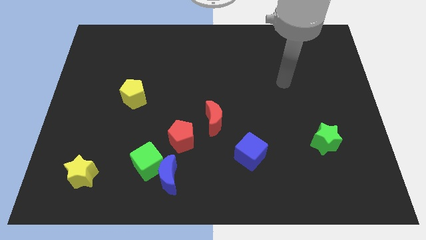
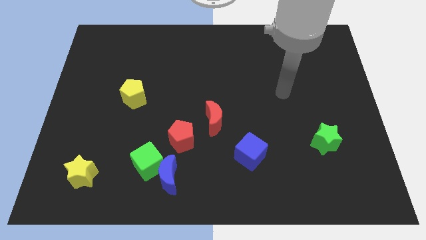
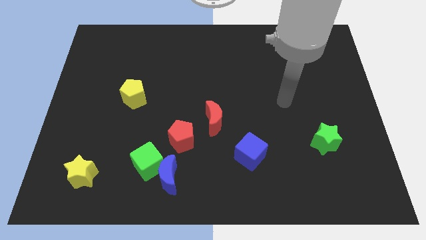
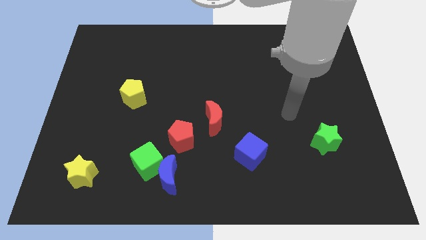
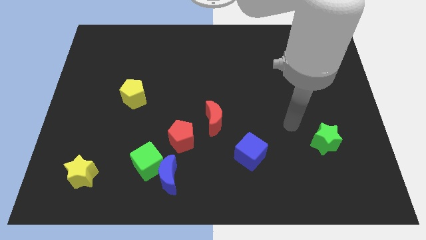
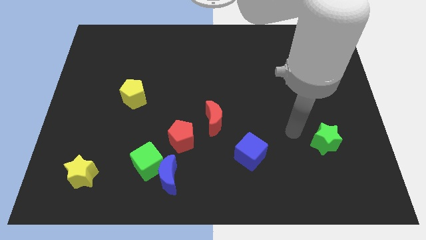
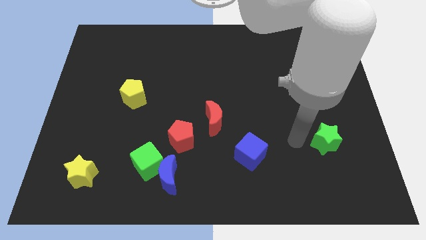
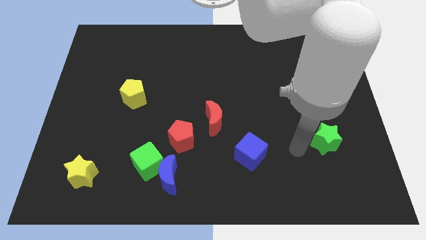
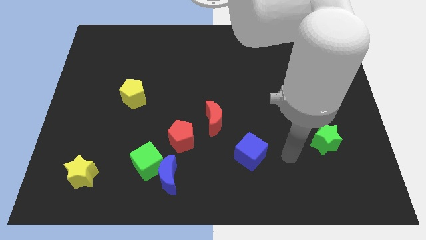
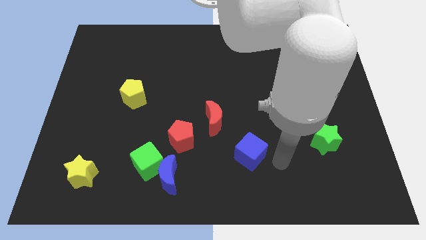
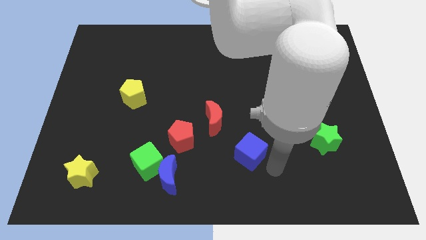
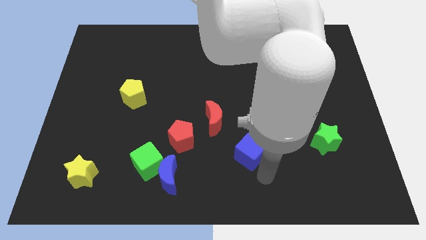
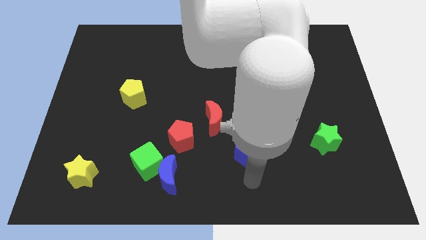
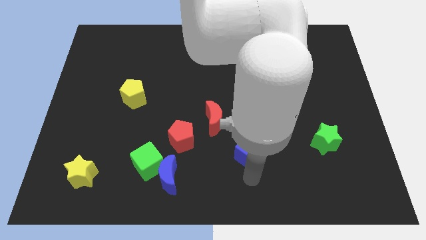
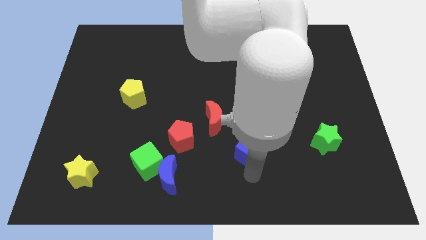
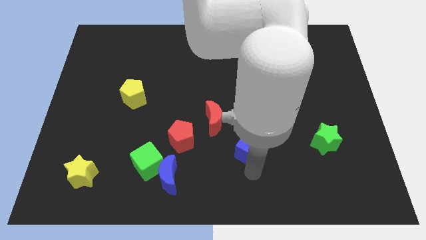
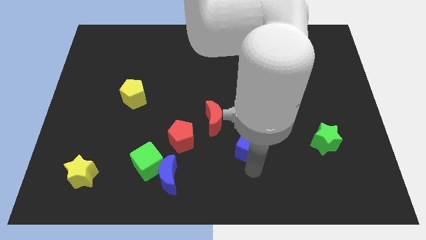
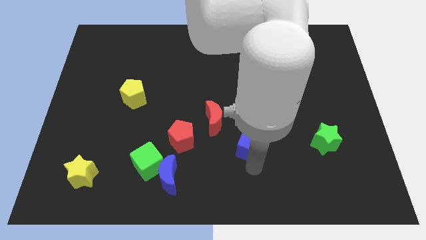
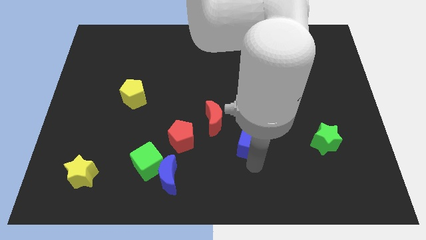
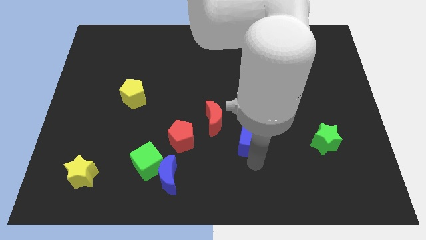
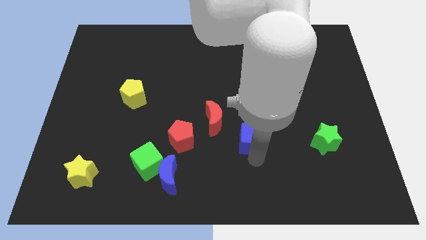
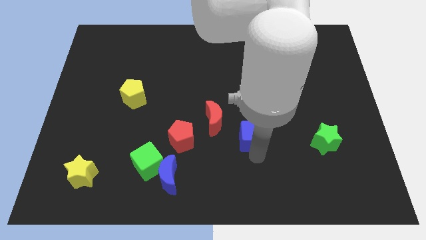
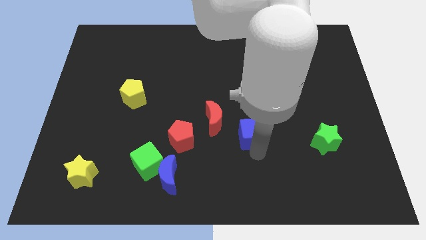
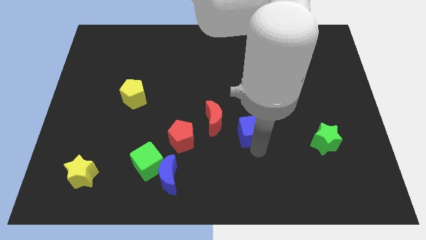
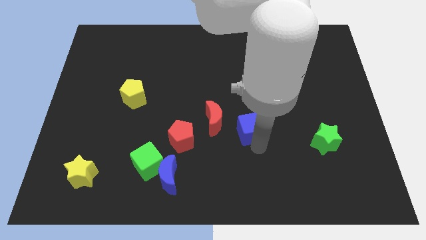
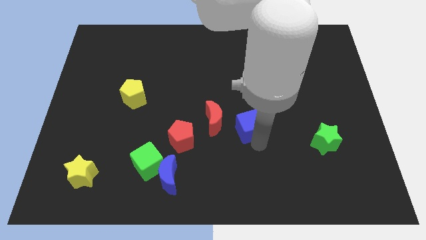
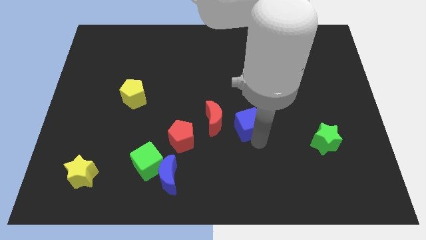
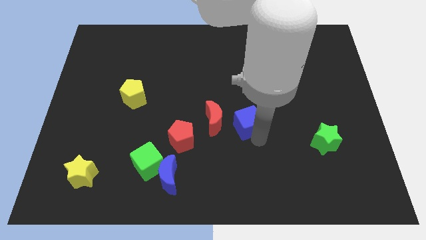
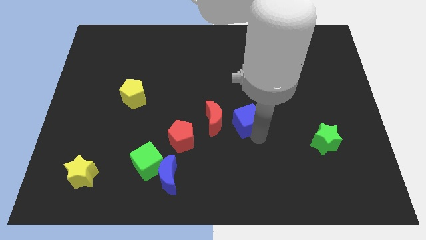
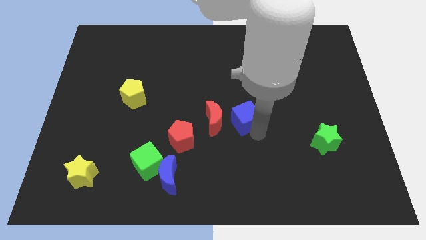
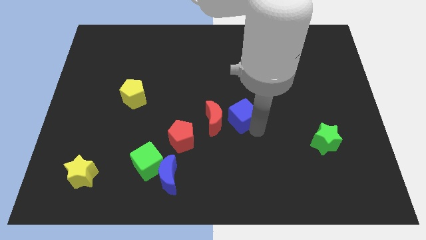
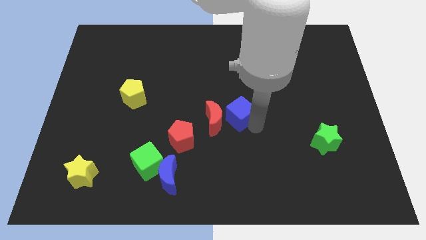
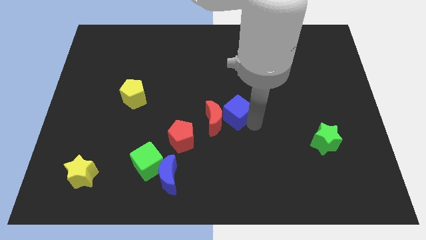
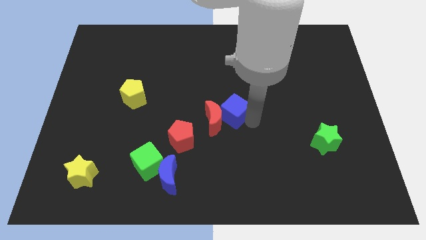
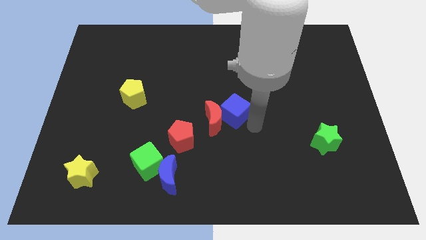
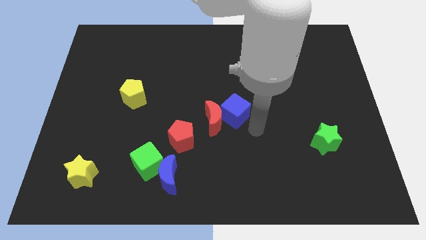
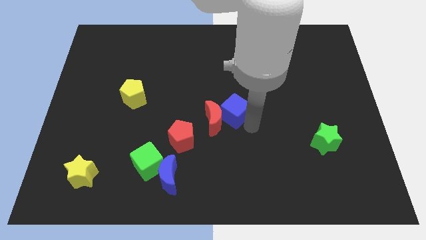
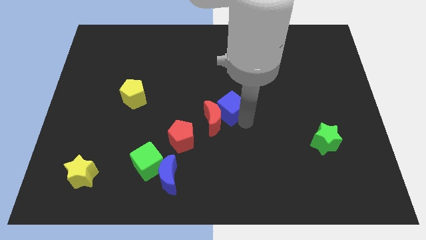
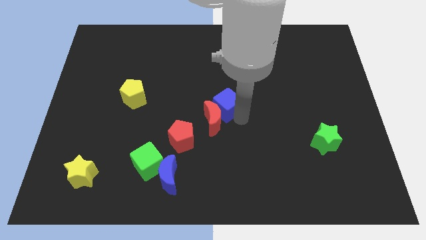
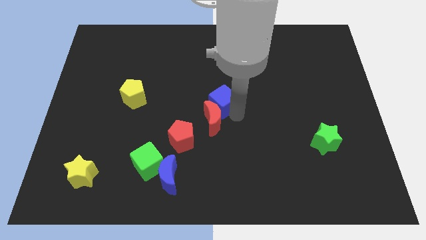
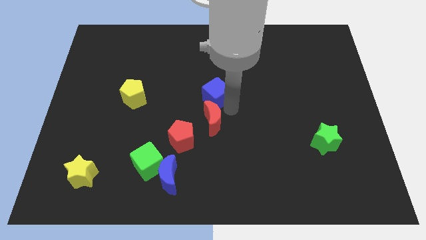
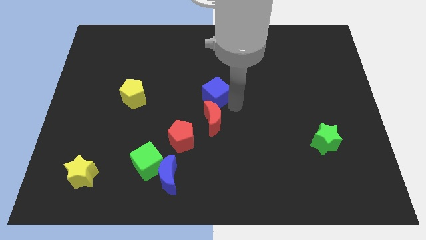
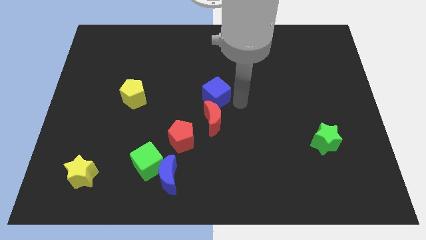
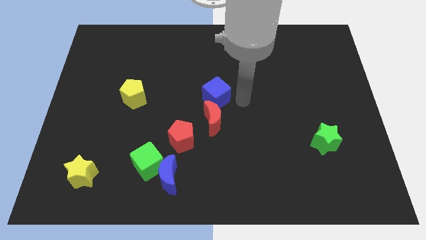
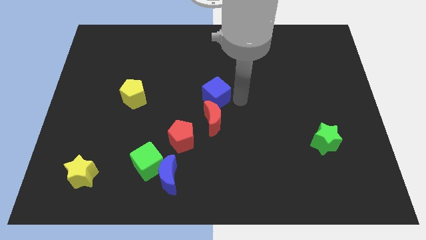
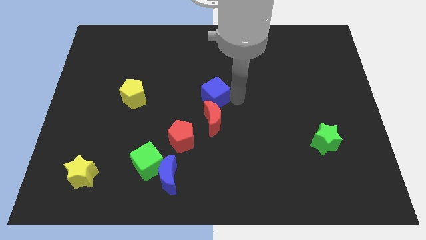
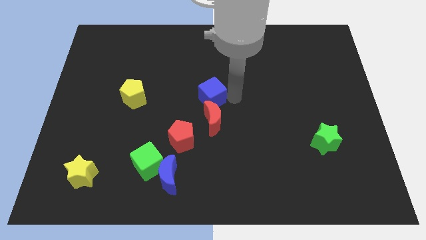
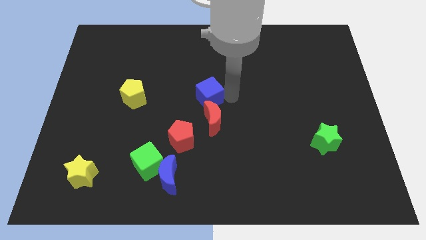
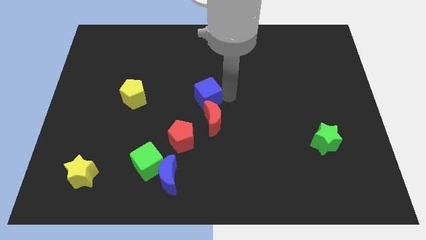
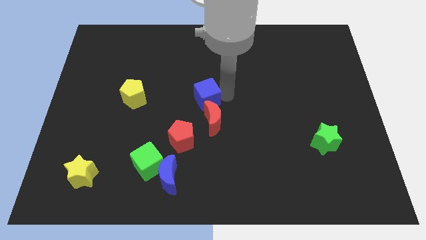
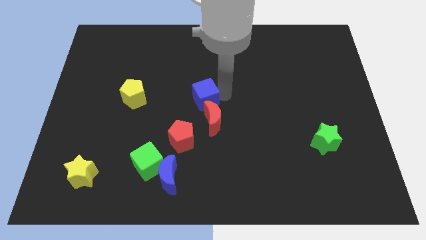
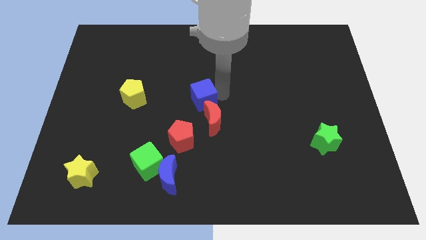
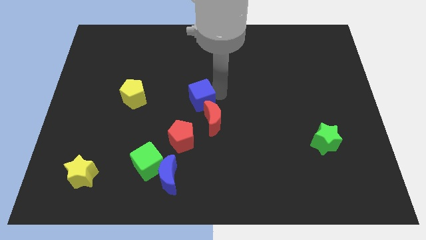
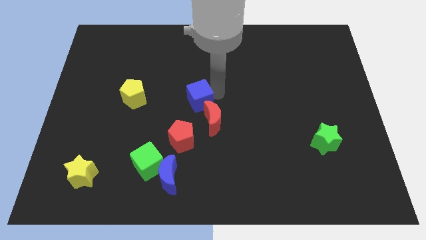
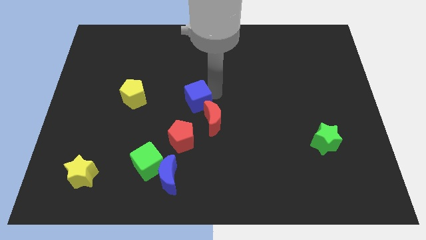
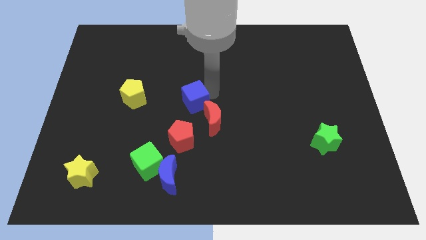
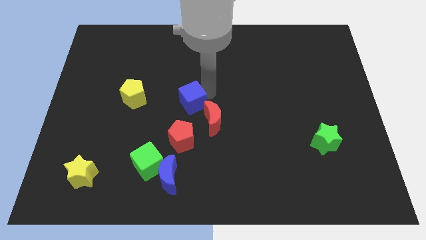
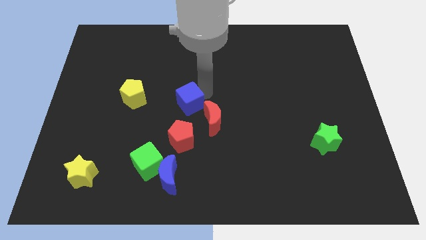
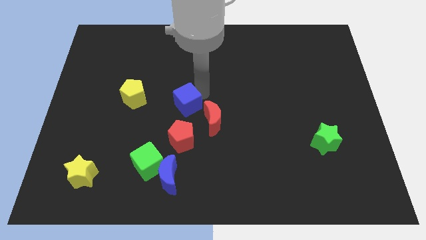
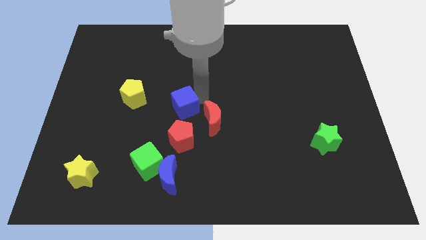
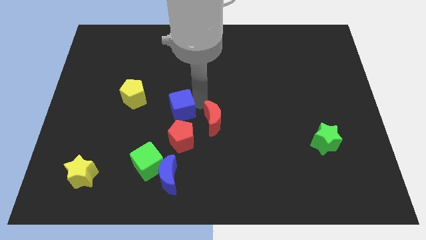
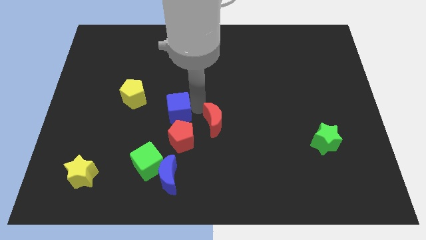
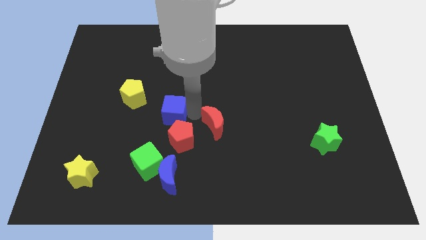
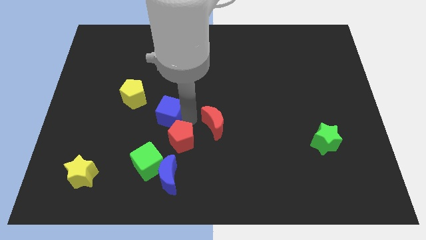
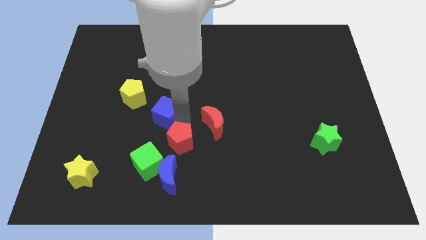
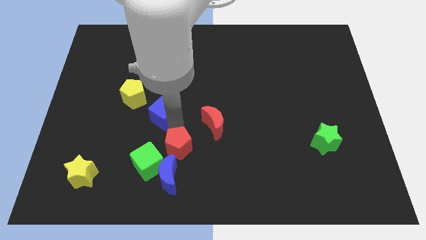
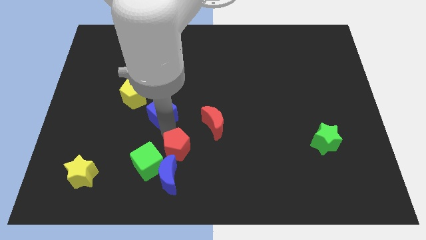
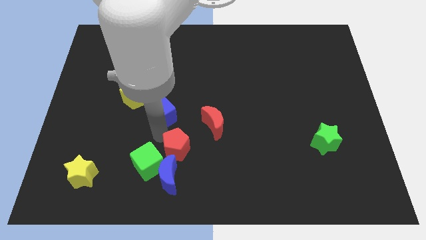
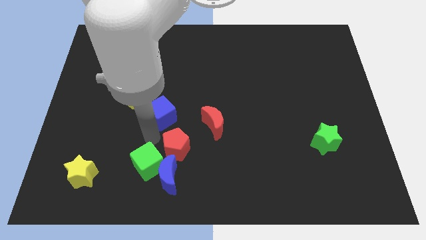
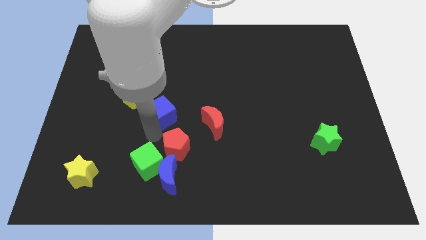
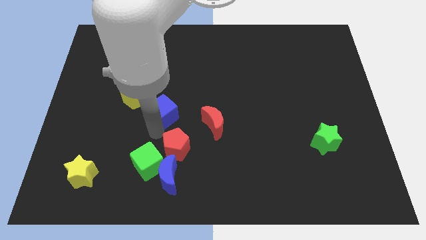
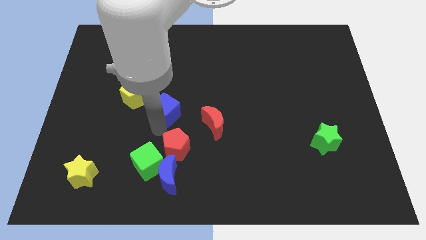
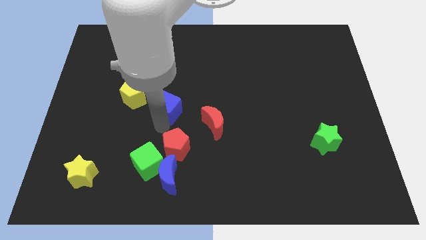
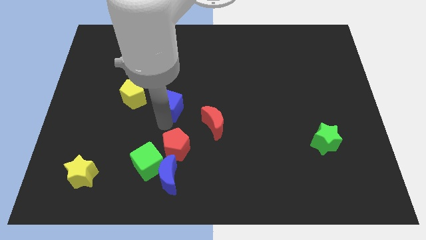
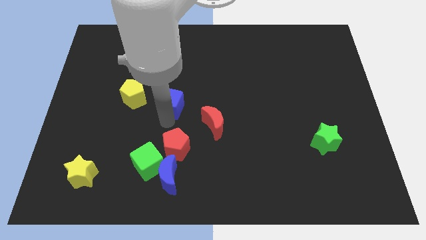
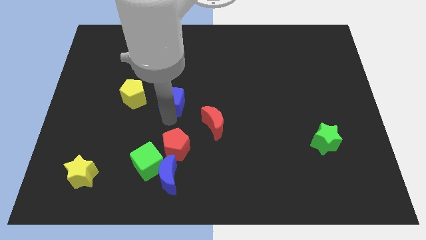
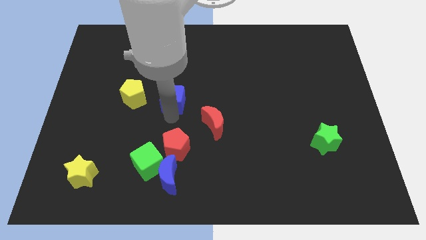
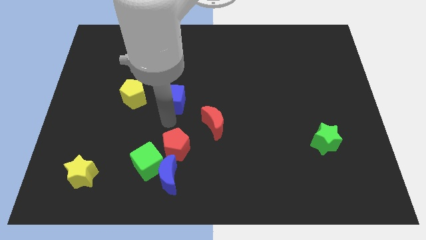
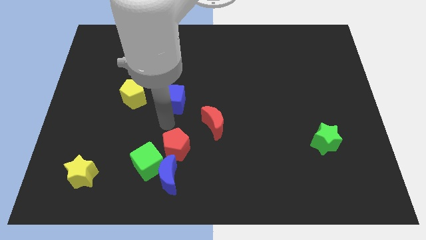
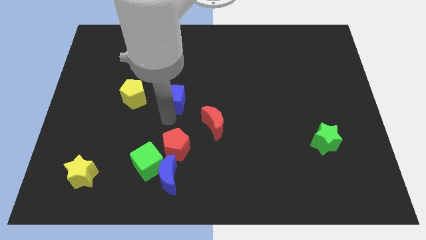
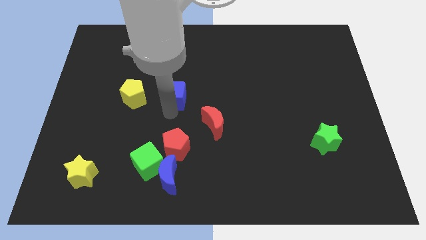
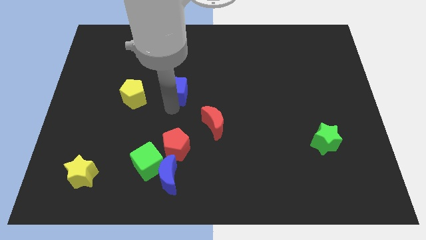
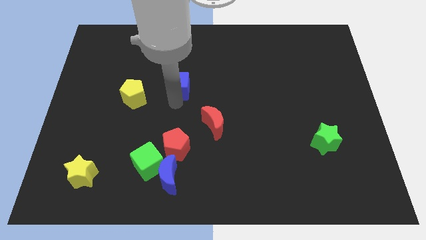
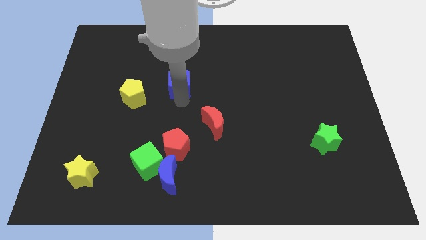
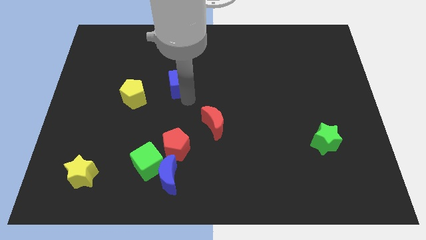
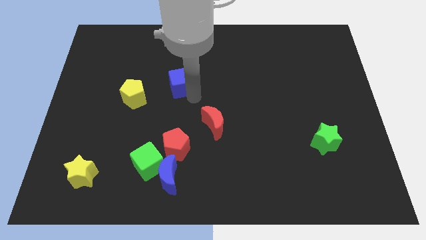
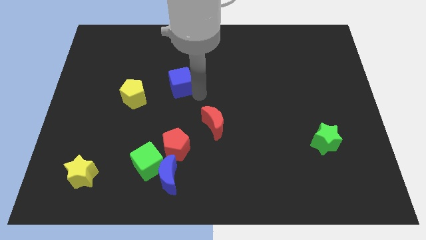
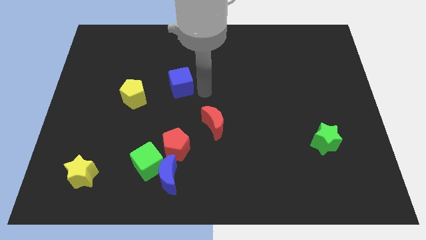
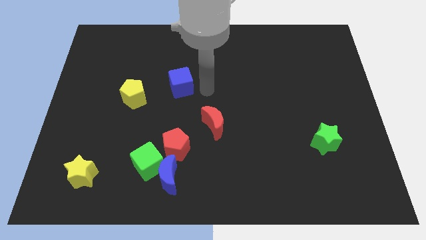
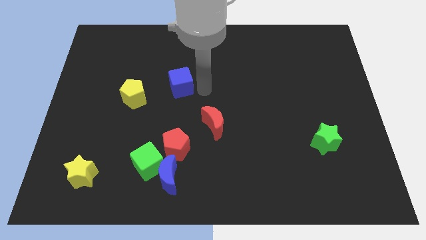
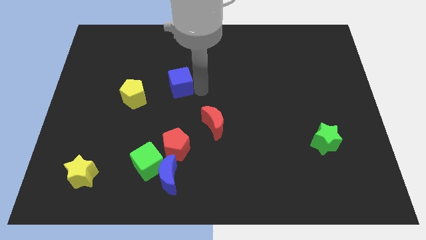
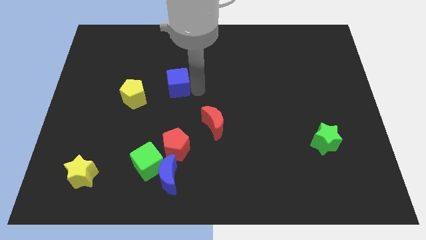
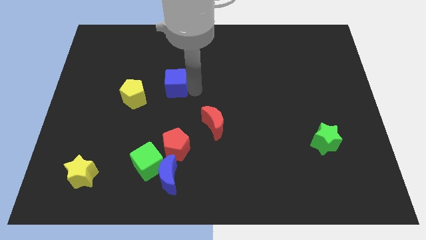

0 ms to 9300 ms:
slide the blue cube to the top right side of the yellow pentagon
